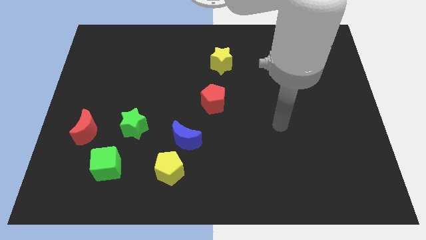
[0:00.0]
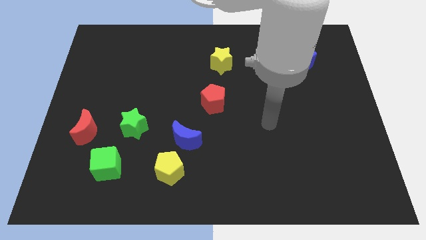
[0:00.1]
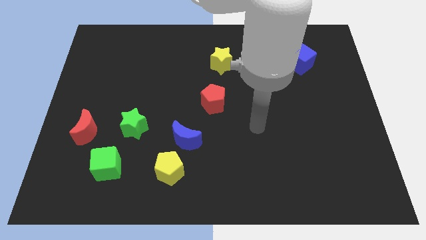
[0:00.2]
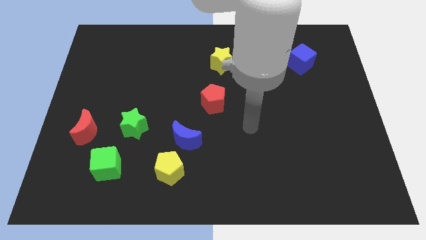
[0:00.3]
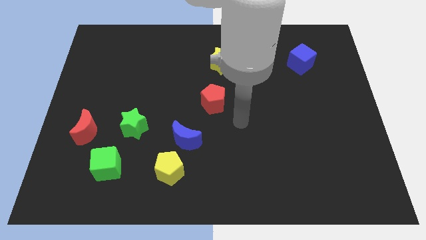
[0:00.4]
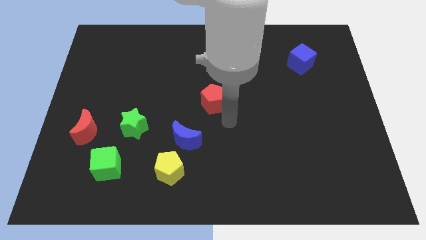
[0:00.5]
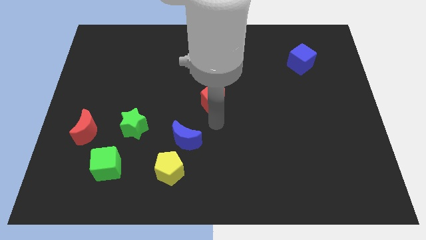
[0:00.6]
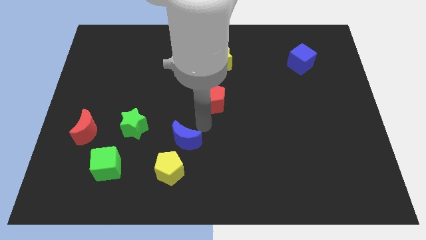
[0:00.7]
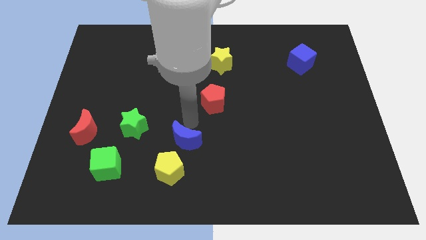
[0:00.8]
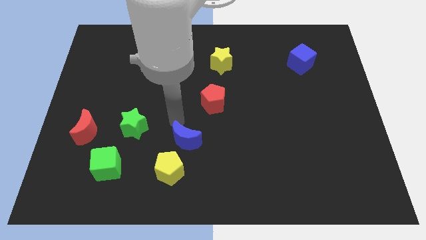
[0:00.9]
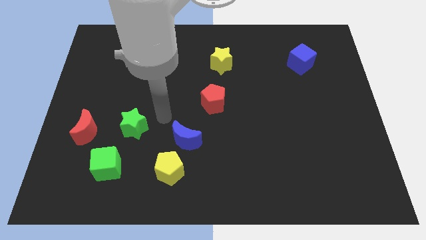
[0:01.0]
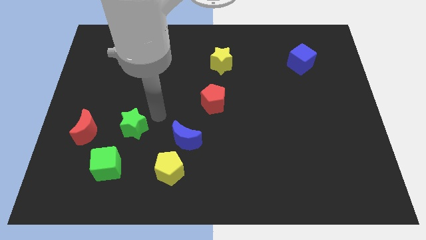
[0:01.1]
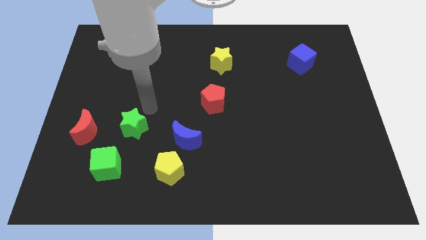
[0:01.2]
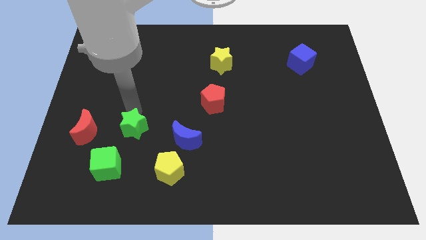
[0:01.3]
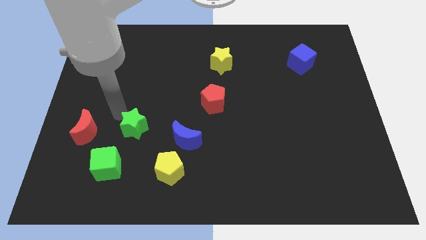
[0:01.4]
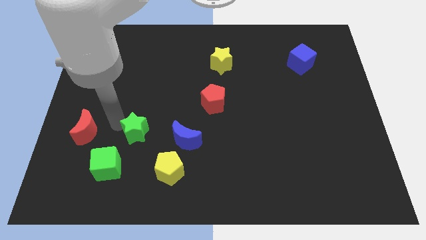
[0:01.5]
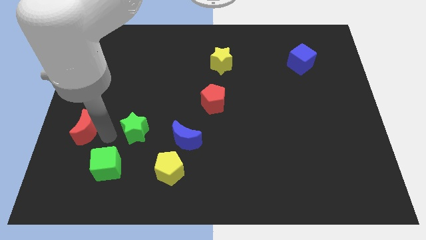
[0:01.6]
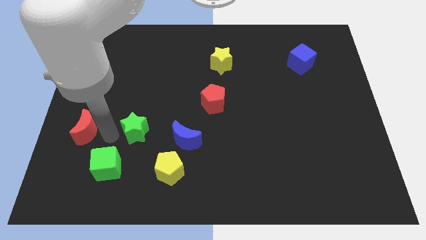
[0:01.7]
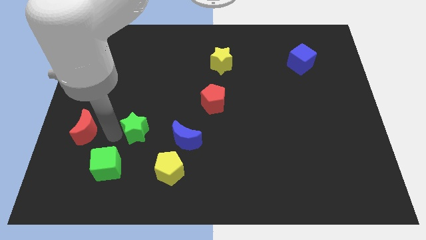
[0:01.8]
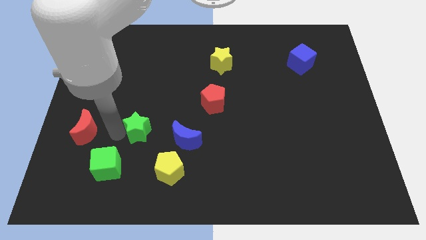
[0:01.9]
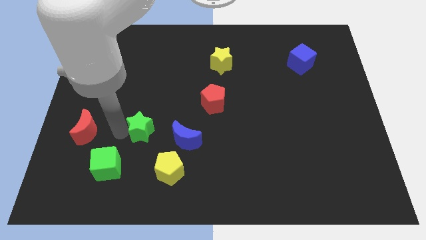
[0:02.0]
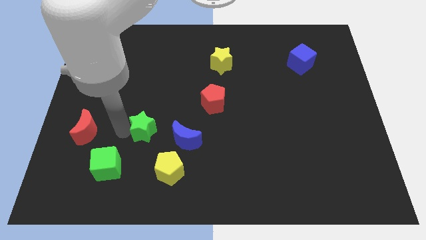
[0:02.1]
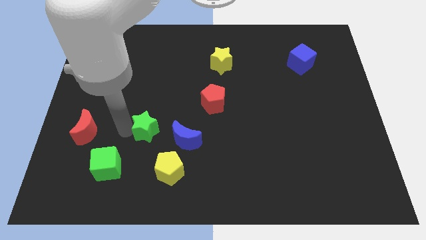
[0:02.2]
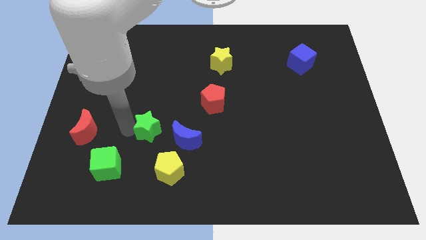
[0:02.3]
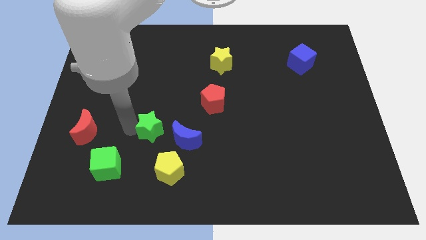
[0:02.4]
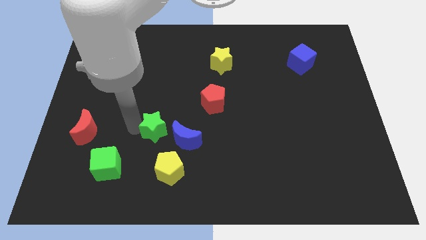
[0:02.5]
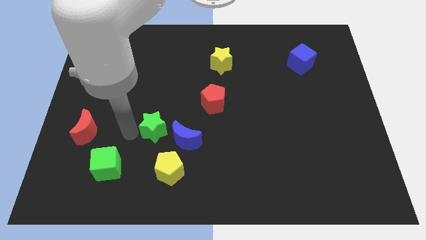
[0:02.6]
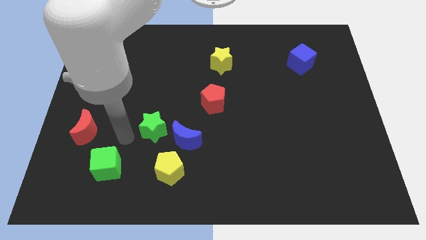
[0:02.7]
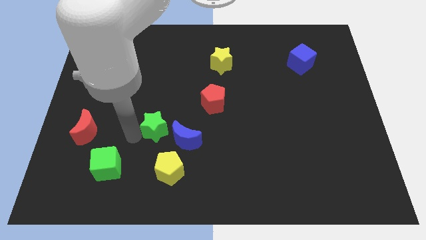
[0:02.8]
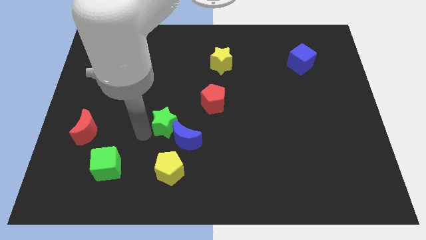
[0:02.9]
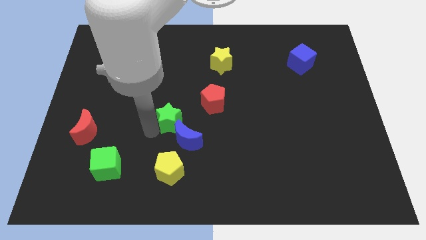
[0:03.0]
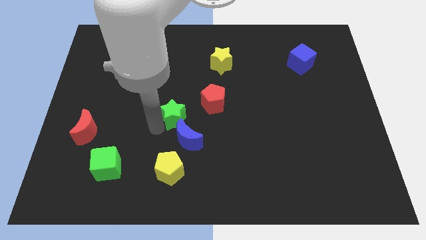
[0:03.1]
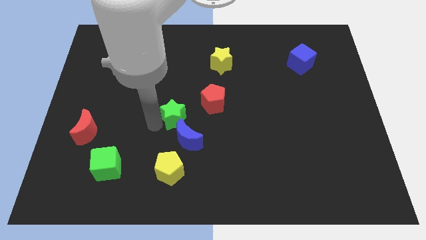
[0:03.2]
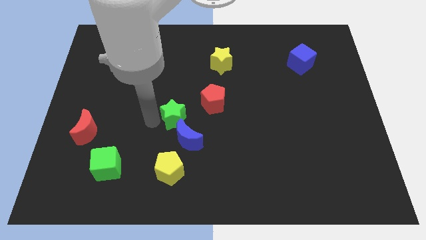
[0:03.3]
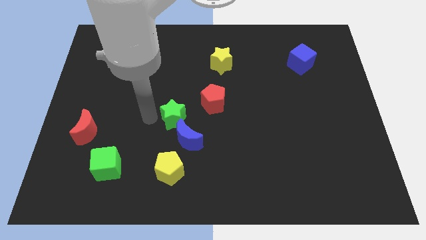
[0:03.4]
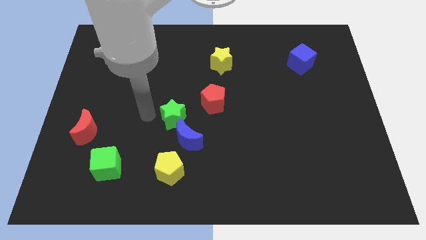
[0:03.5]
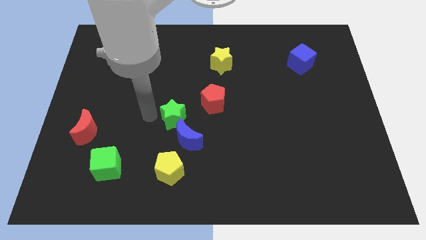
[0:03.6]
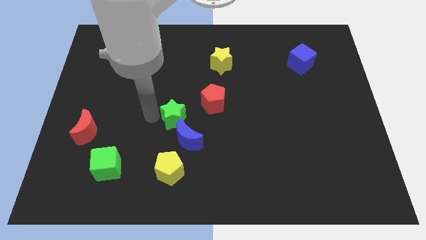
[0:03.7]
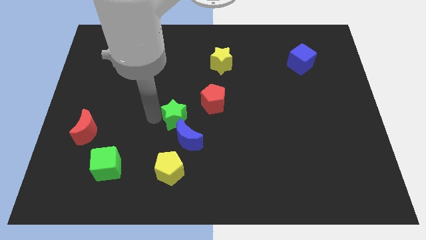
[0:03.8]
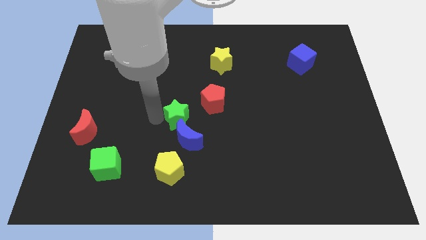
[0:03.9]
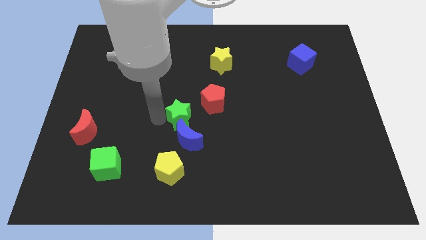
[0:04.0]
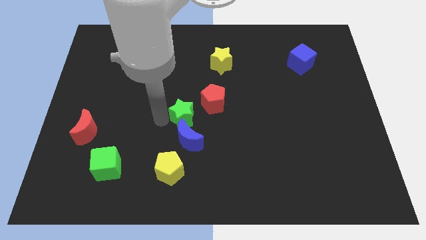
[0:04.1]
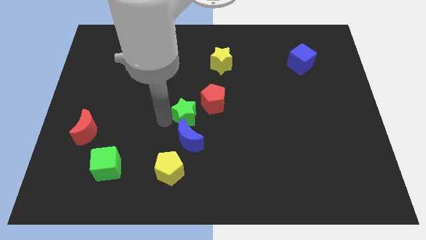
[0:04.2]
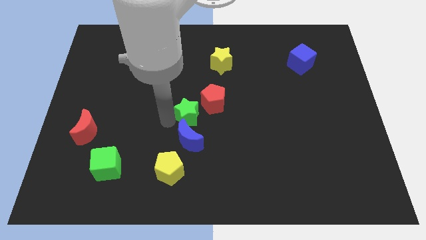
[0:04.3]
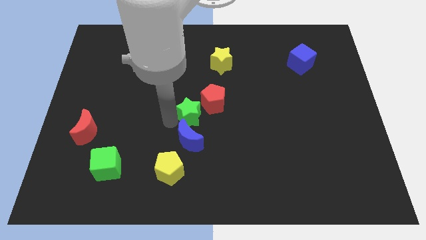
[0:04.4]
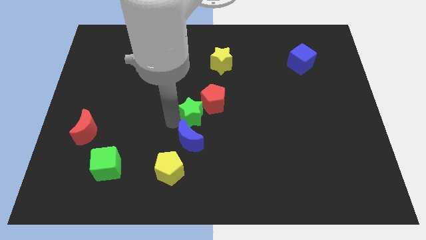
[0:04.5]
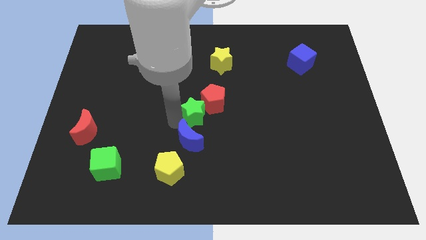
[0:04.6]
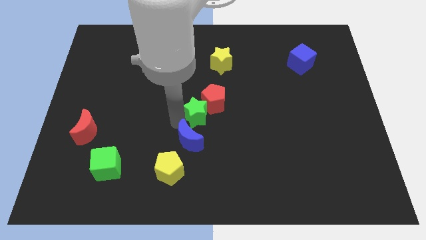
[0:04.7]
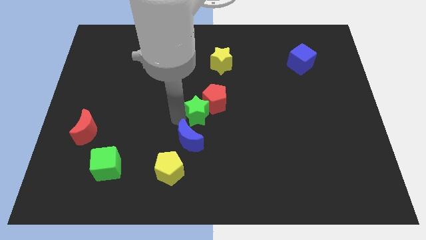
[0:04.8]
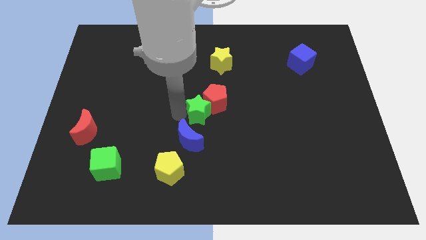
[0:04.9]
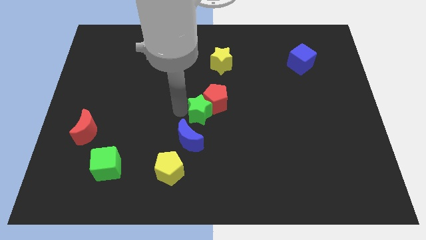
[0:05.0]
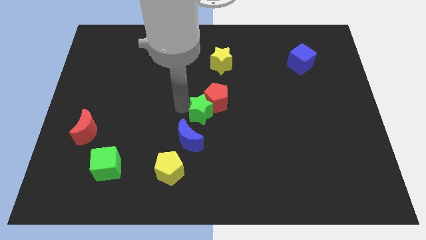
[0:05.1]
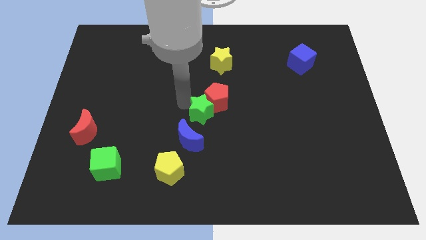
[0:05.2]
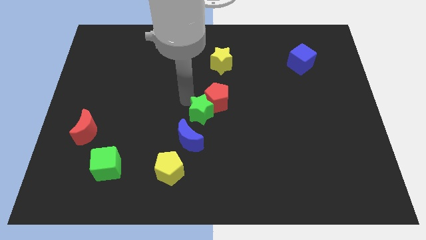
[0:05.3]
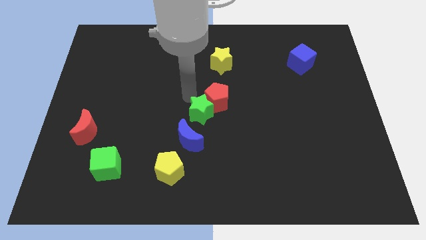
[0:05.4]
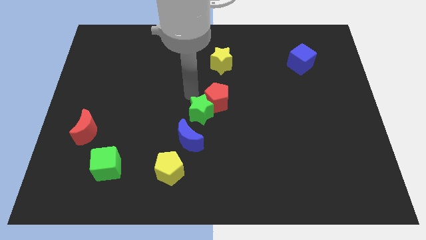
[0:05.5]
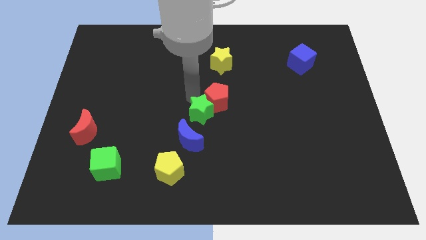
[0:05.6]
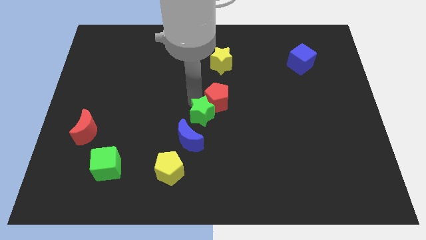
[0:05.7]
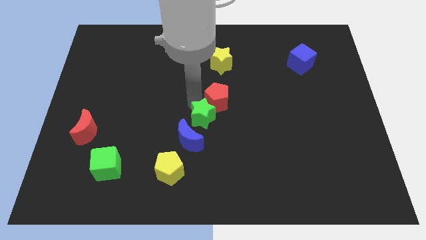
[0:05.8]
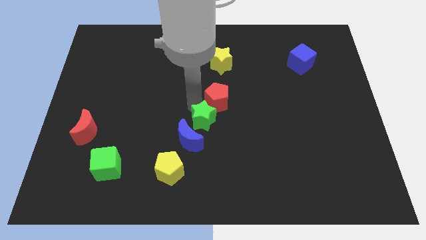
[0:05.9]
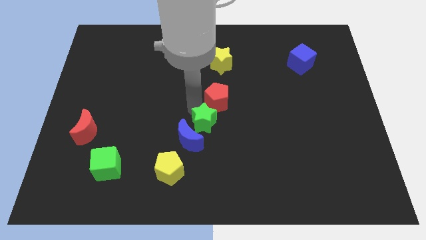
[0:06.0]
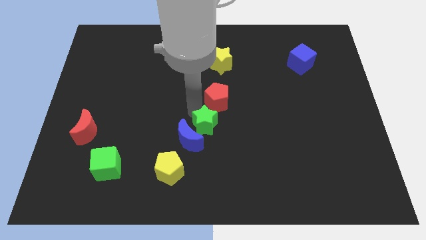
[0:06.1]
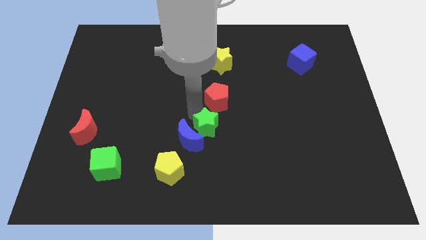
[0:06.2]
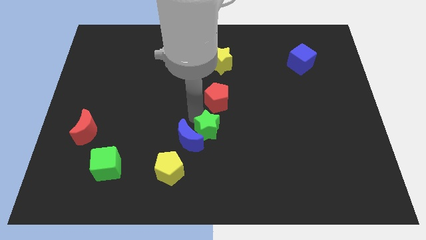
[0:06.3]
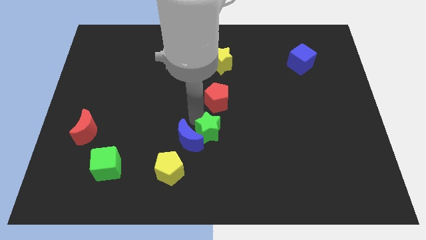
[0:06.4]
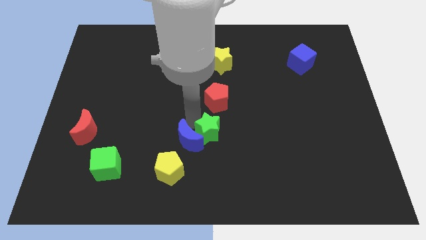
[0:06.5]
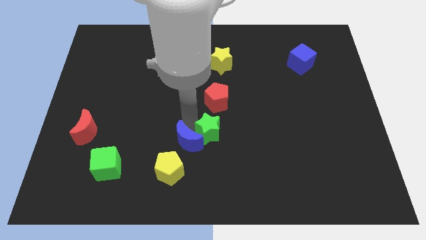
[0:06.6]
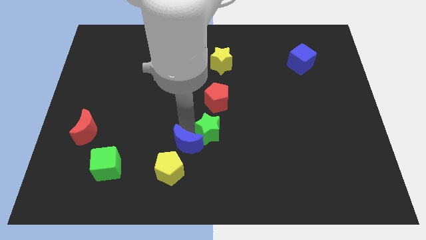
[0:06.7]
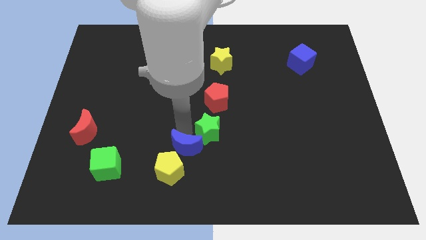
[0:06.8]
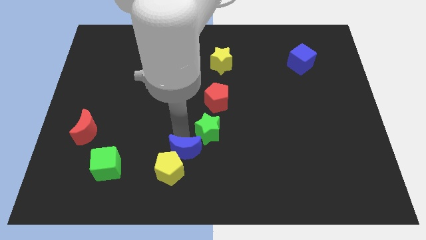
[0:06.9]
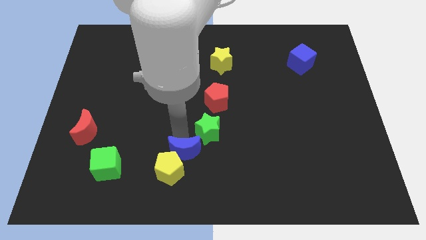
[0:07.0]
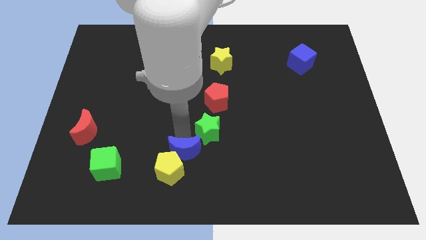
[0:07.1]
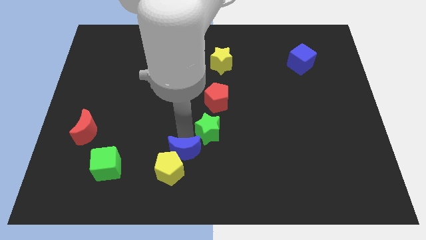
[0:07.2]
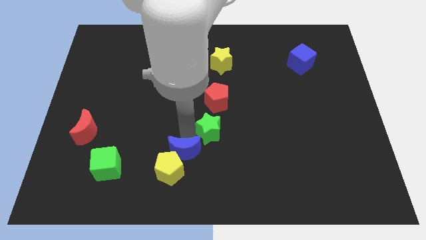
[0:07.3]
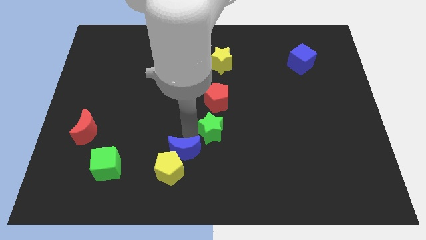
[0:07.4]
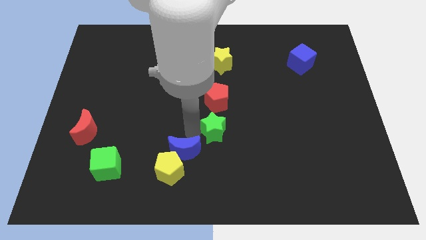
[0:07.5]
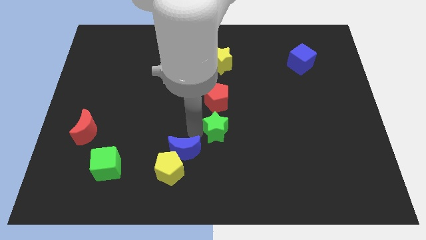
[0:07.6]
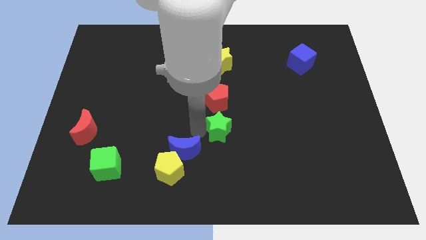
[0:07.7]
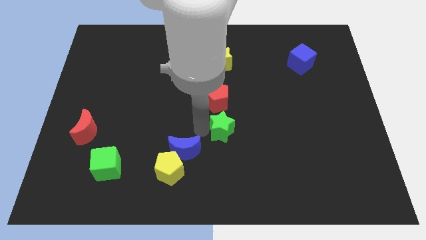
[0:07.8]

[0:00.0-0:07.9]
move the green star to the right

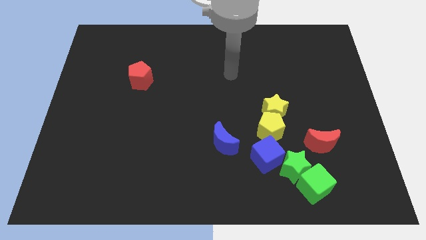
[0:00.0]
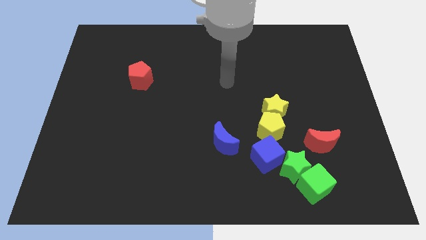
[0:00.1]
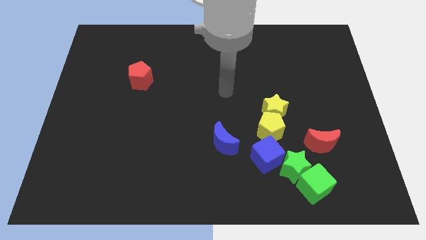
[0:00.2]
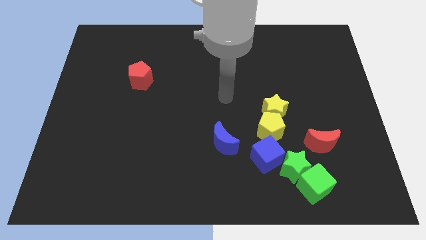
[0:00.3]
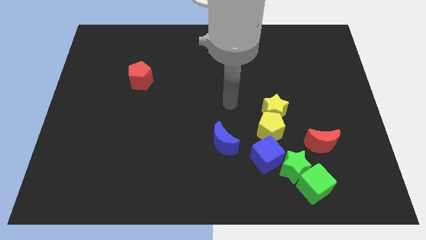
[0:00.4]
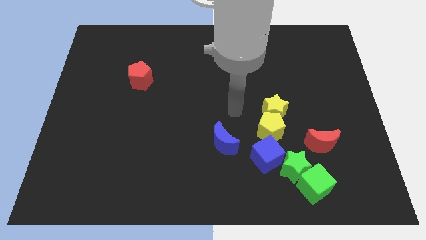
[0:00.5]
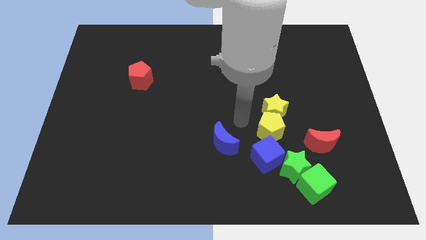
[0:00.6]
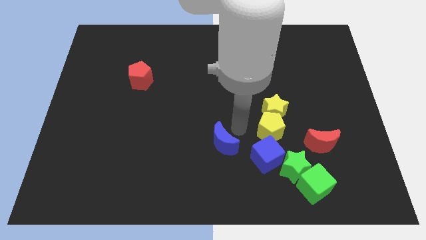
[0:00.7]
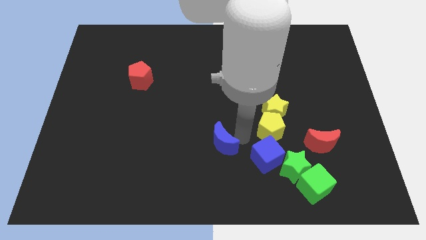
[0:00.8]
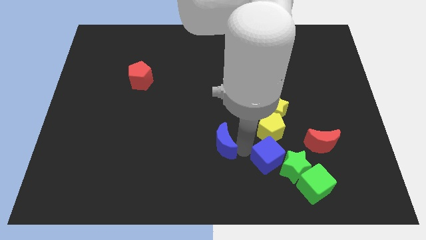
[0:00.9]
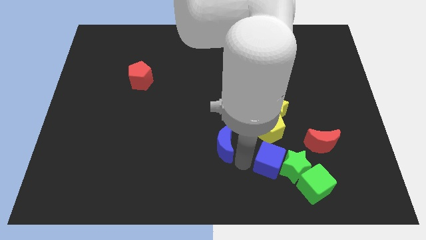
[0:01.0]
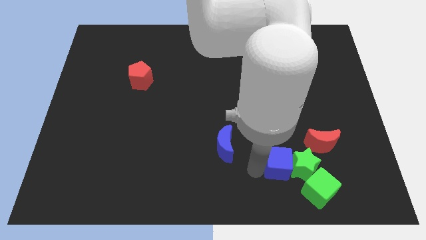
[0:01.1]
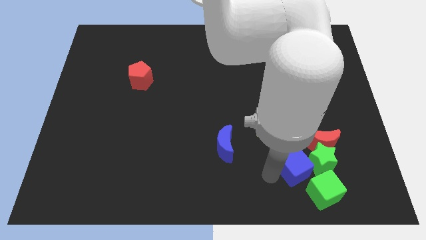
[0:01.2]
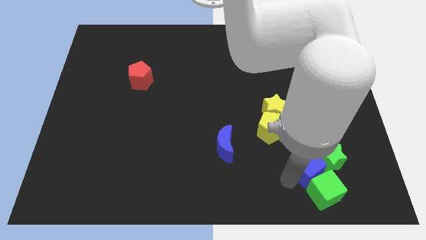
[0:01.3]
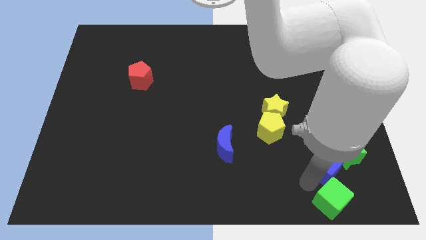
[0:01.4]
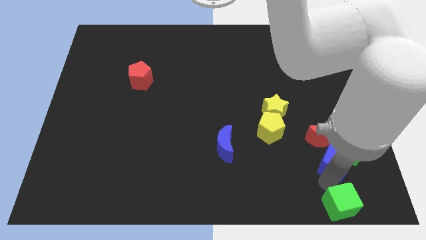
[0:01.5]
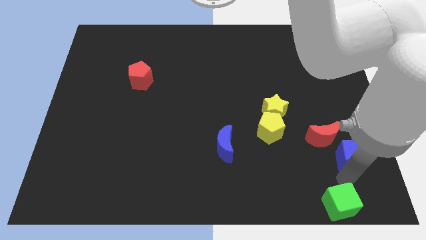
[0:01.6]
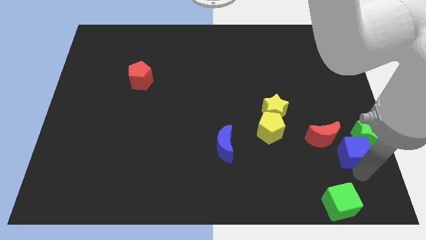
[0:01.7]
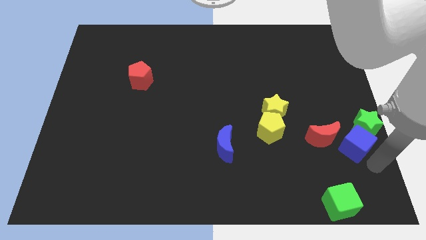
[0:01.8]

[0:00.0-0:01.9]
move the blue cube a little diagonally upwards and right
